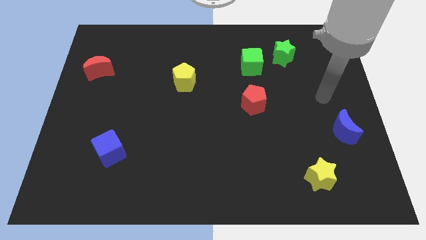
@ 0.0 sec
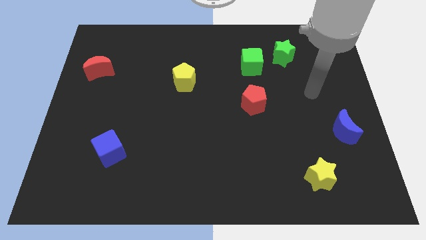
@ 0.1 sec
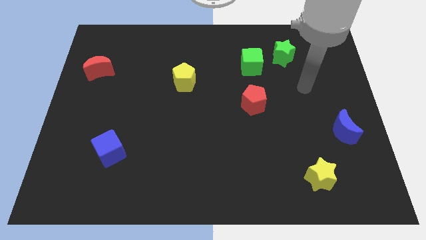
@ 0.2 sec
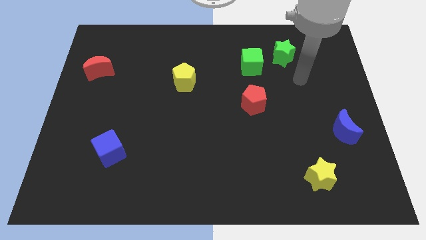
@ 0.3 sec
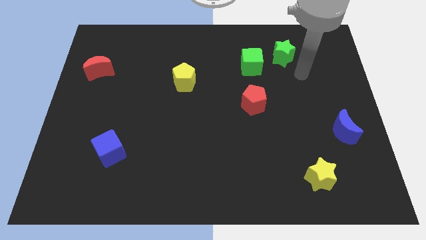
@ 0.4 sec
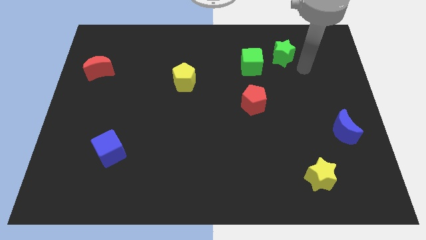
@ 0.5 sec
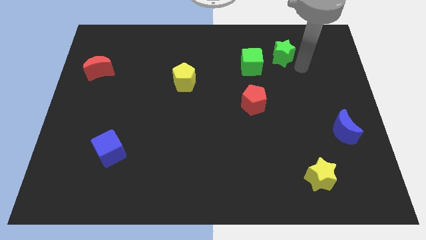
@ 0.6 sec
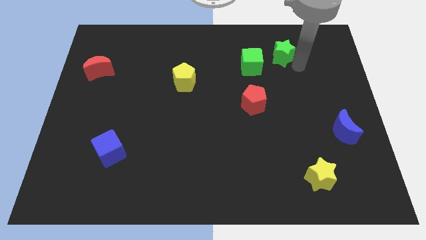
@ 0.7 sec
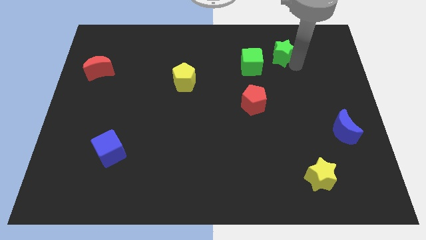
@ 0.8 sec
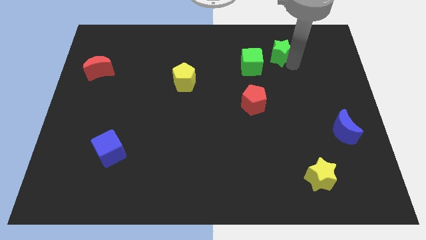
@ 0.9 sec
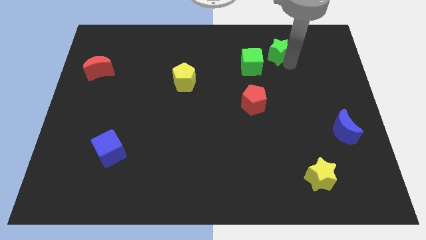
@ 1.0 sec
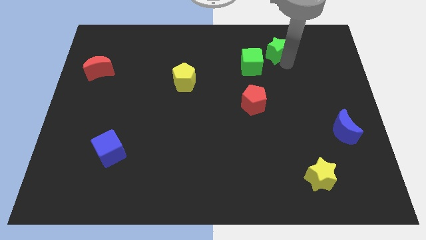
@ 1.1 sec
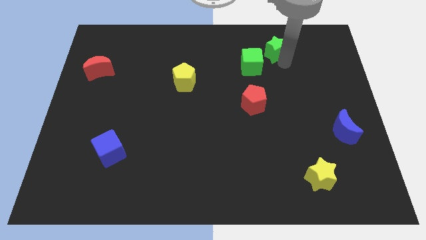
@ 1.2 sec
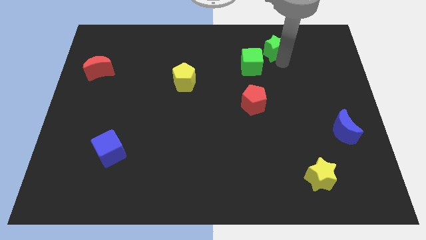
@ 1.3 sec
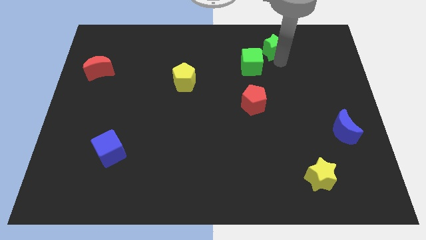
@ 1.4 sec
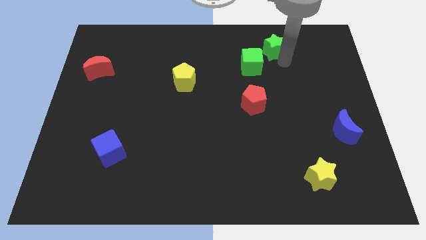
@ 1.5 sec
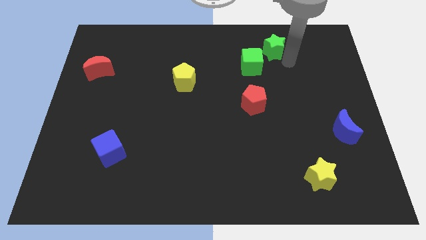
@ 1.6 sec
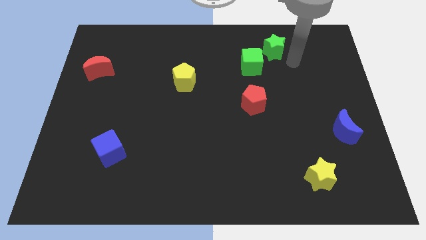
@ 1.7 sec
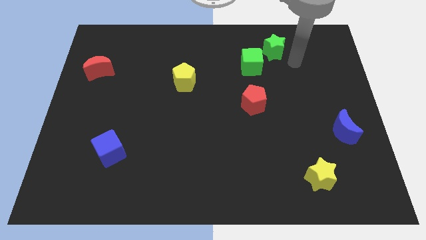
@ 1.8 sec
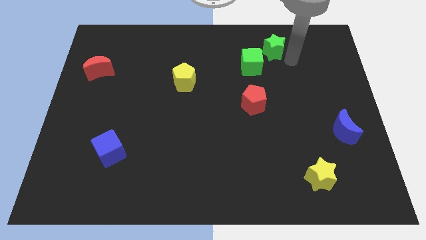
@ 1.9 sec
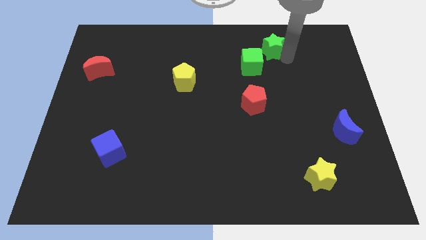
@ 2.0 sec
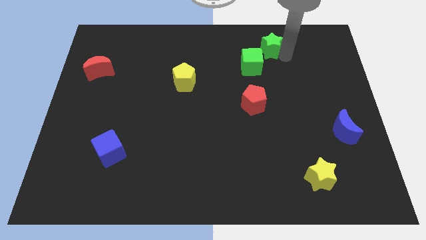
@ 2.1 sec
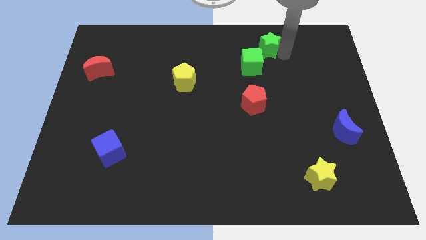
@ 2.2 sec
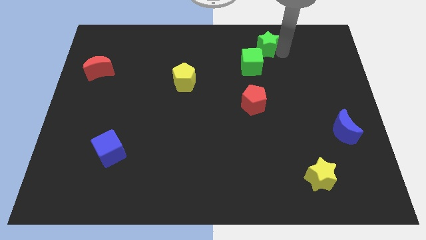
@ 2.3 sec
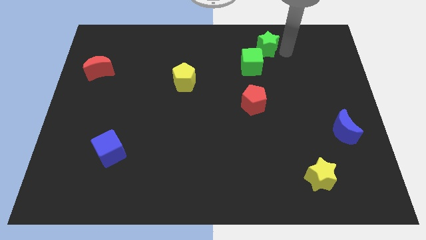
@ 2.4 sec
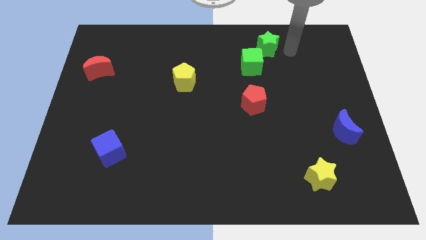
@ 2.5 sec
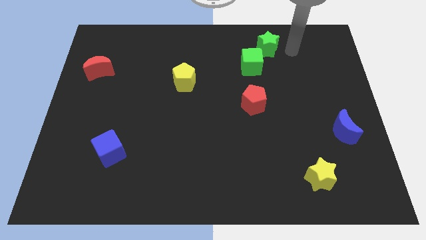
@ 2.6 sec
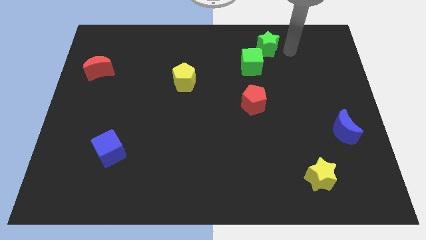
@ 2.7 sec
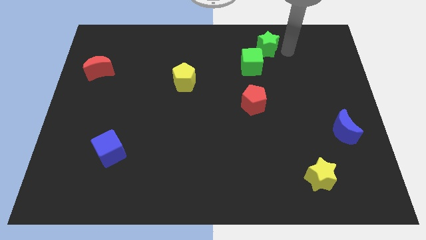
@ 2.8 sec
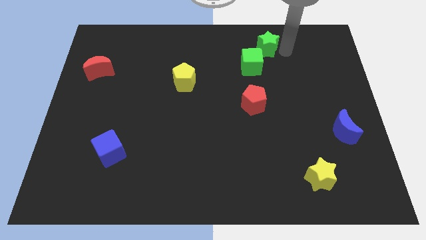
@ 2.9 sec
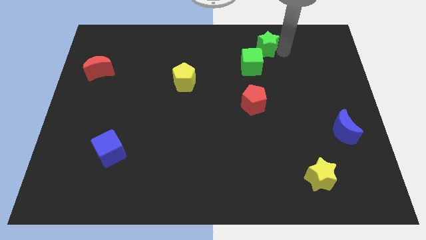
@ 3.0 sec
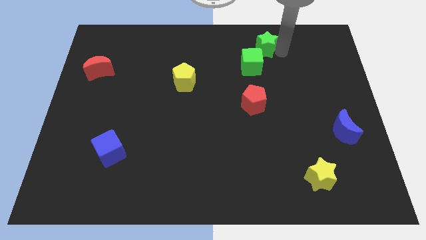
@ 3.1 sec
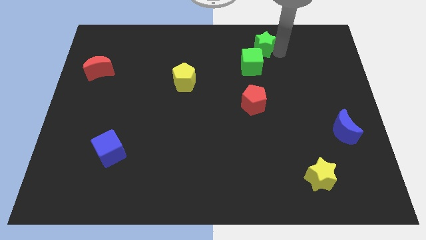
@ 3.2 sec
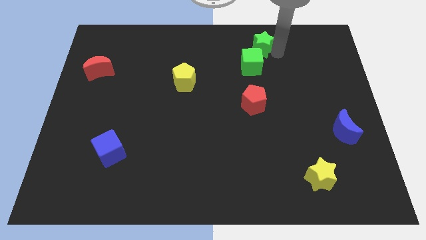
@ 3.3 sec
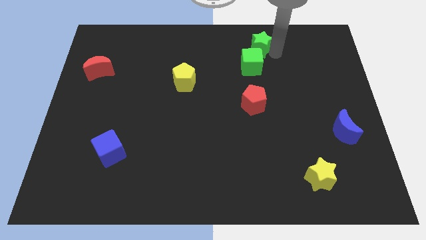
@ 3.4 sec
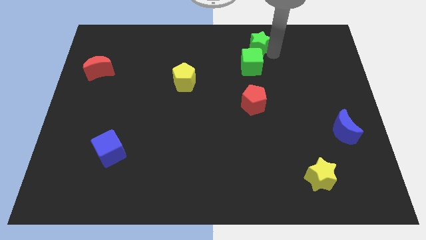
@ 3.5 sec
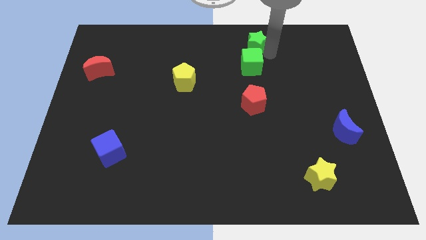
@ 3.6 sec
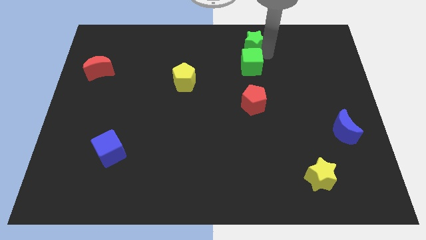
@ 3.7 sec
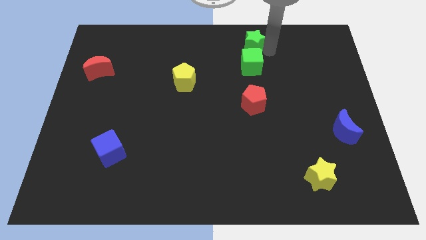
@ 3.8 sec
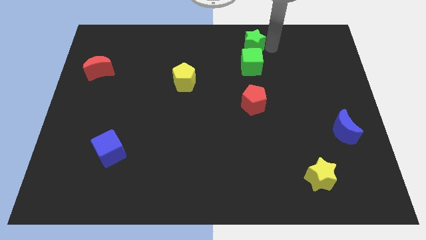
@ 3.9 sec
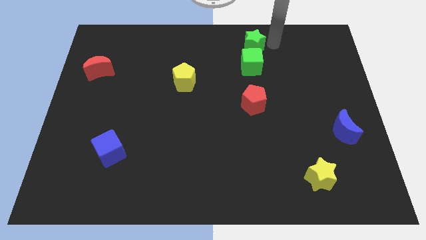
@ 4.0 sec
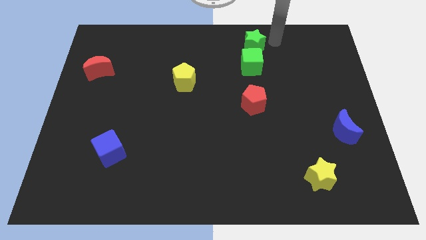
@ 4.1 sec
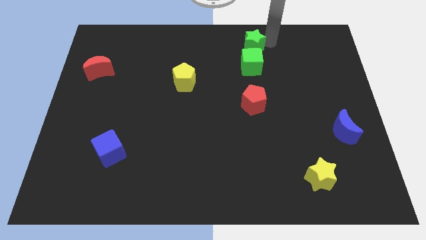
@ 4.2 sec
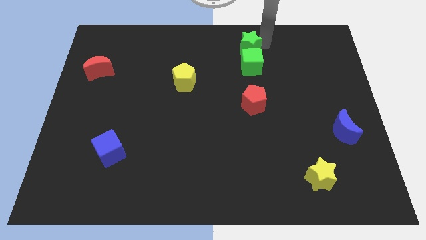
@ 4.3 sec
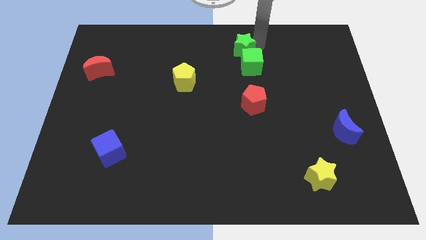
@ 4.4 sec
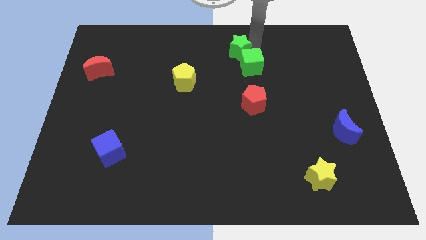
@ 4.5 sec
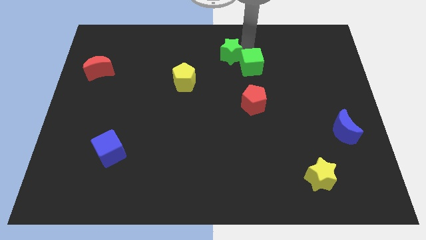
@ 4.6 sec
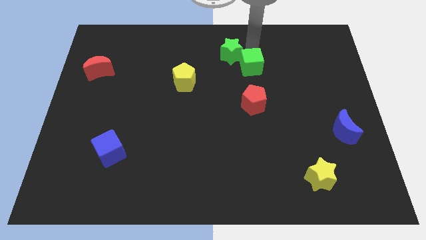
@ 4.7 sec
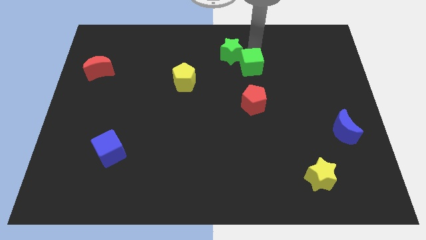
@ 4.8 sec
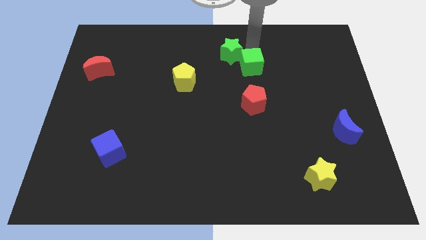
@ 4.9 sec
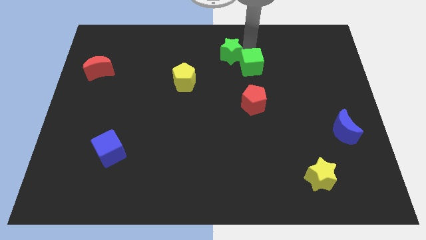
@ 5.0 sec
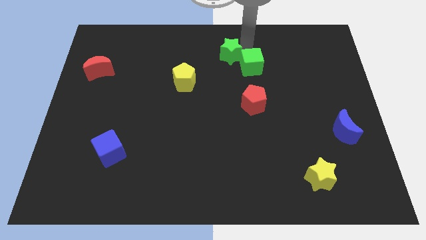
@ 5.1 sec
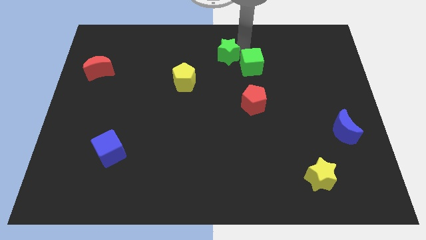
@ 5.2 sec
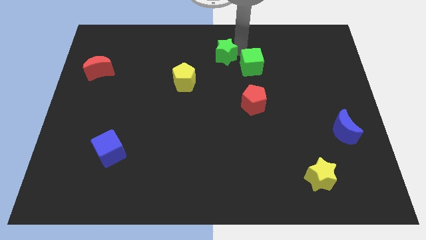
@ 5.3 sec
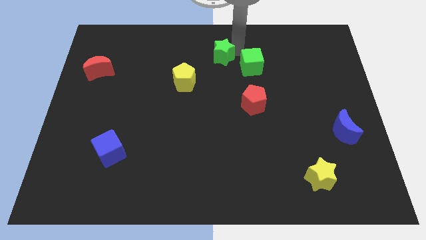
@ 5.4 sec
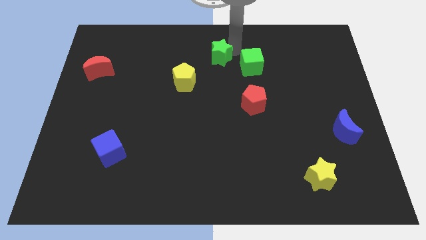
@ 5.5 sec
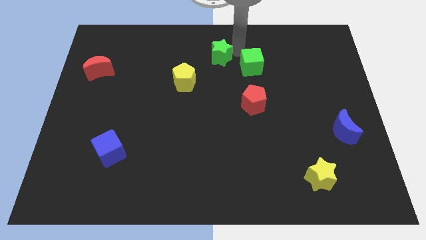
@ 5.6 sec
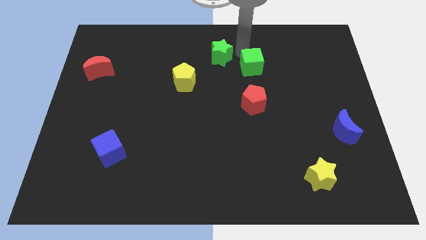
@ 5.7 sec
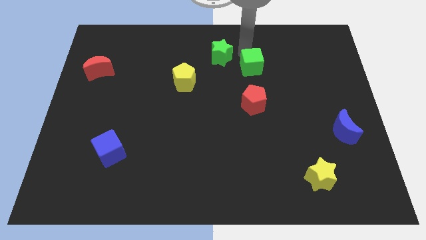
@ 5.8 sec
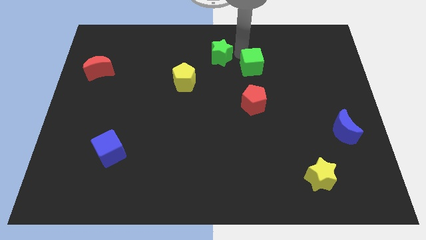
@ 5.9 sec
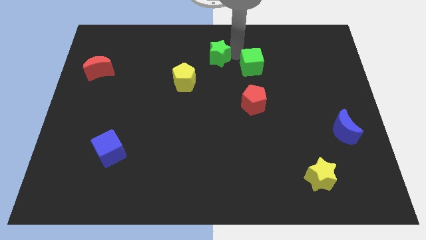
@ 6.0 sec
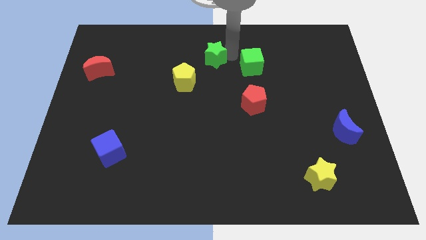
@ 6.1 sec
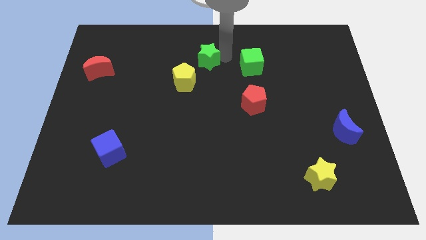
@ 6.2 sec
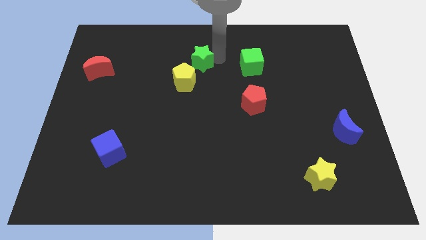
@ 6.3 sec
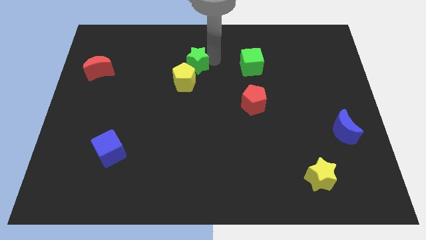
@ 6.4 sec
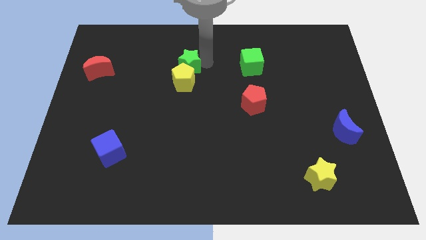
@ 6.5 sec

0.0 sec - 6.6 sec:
slide the green star diagonally up and to the left of the yellow pentagon
